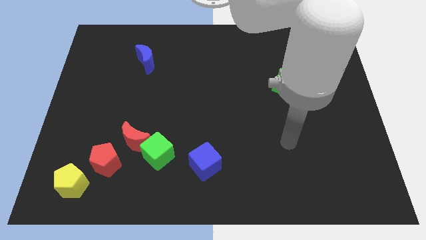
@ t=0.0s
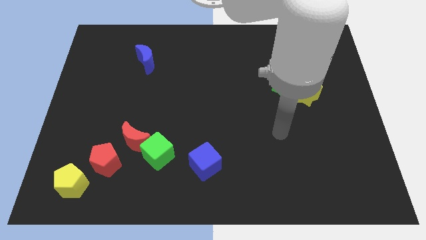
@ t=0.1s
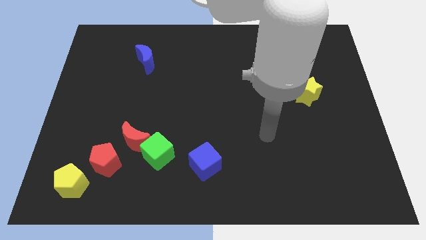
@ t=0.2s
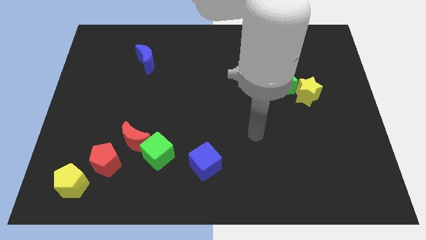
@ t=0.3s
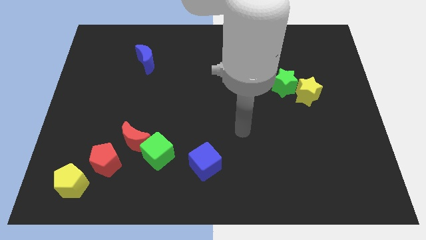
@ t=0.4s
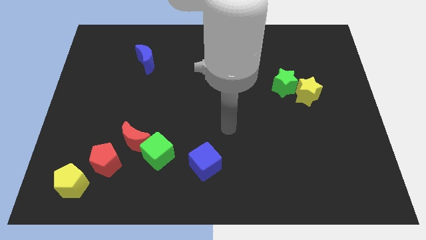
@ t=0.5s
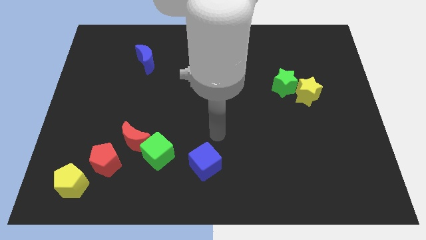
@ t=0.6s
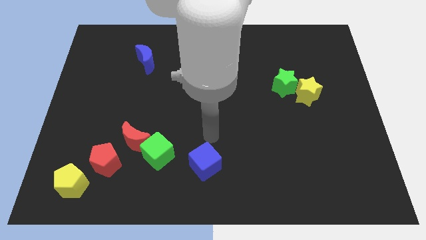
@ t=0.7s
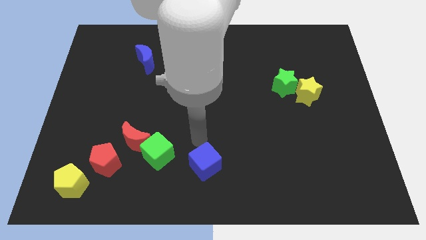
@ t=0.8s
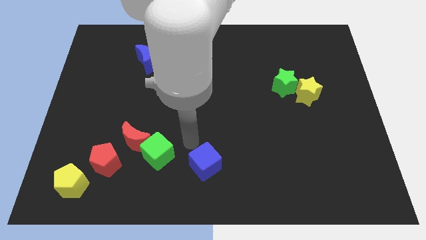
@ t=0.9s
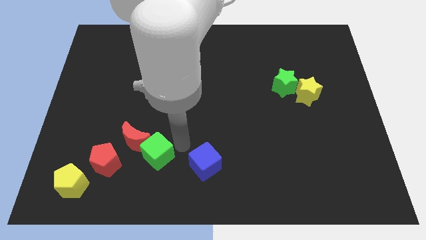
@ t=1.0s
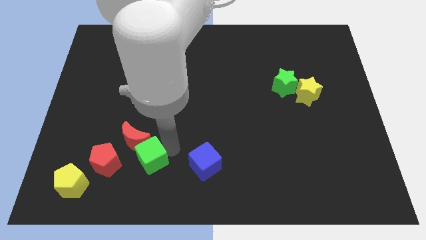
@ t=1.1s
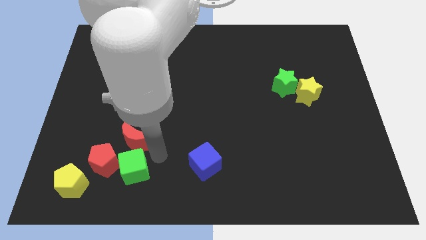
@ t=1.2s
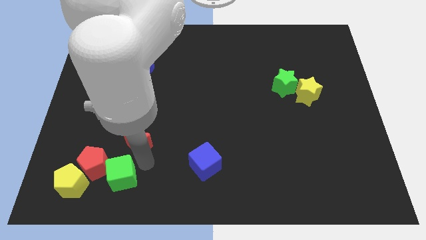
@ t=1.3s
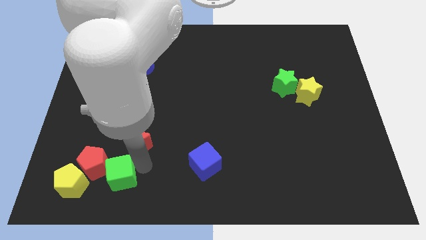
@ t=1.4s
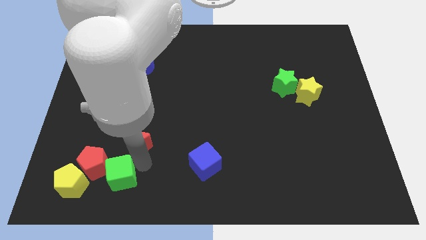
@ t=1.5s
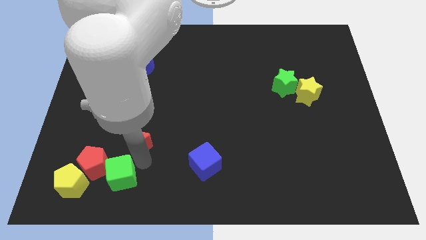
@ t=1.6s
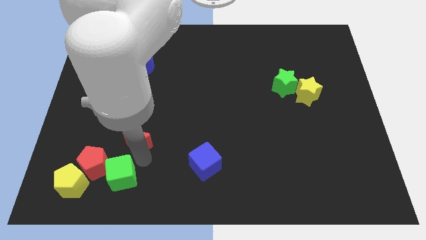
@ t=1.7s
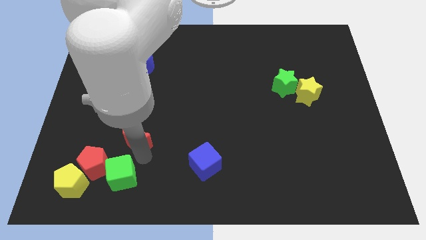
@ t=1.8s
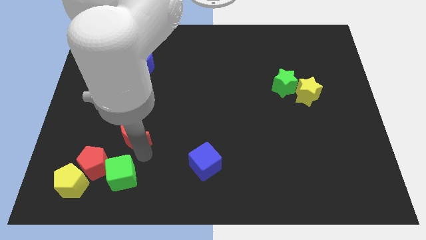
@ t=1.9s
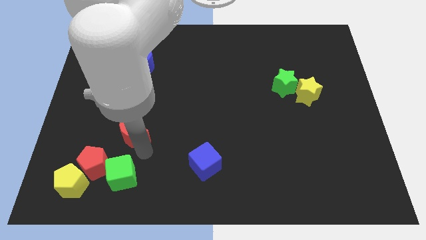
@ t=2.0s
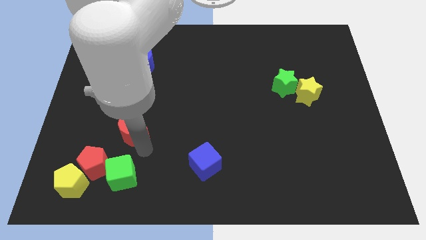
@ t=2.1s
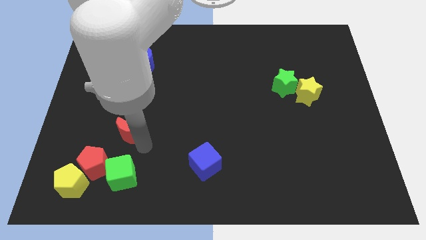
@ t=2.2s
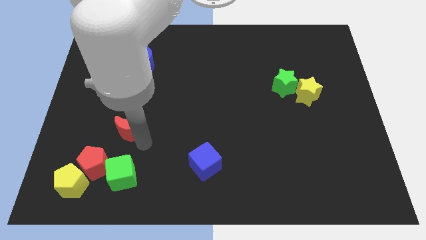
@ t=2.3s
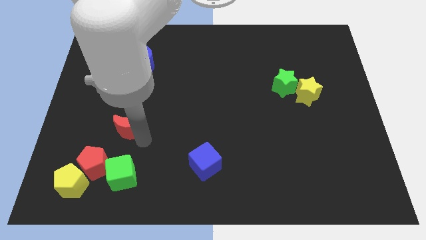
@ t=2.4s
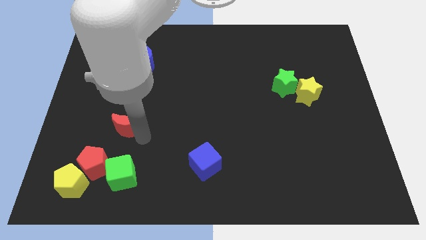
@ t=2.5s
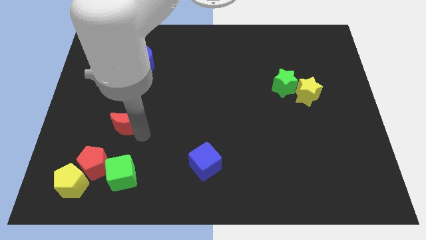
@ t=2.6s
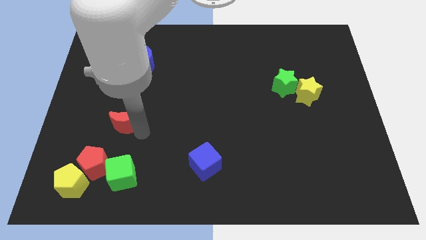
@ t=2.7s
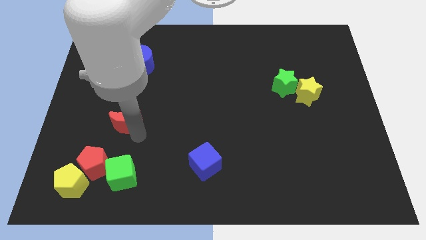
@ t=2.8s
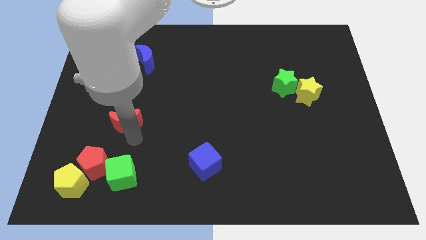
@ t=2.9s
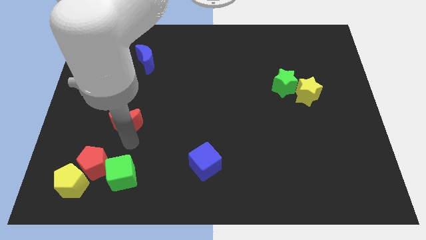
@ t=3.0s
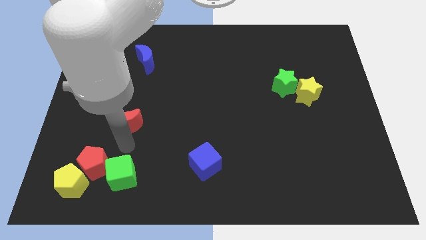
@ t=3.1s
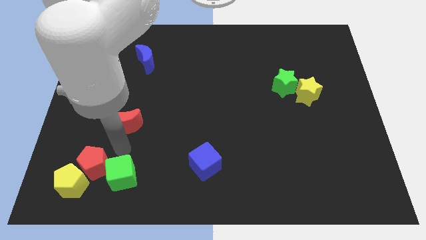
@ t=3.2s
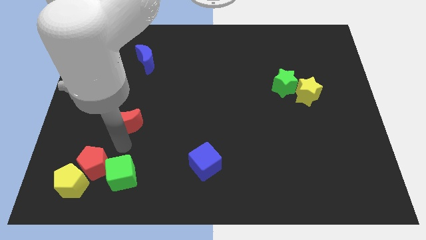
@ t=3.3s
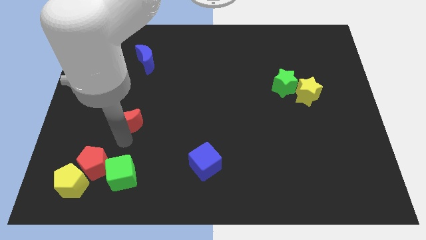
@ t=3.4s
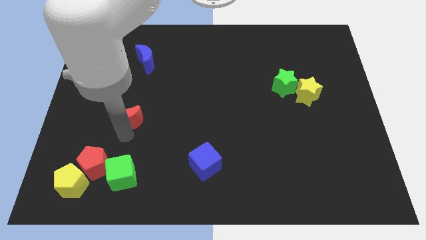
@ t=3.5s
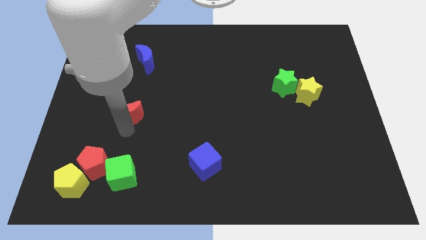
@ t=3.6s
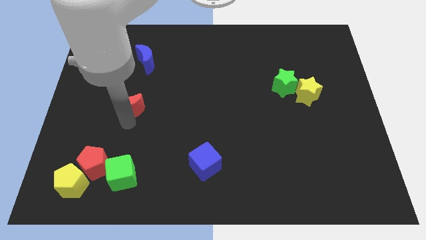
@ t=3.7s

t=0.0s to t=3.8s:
move the red moon up a little bit

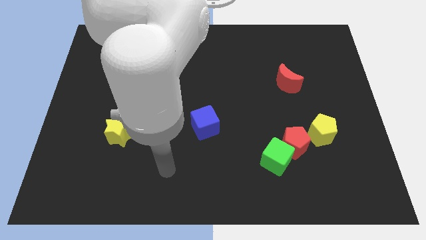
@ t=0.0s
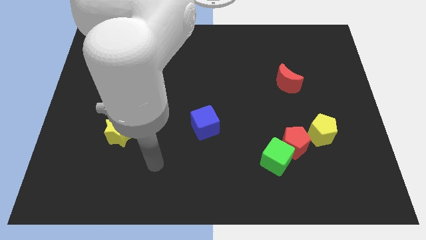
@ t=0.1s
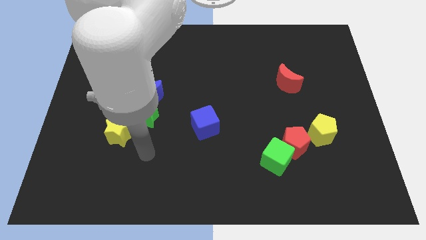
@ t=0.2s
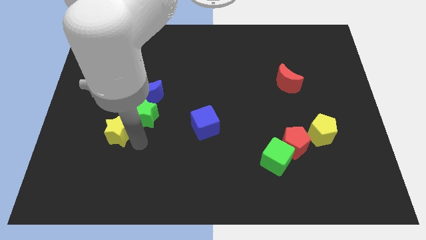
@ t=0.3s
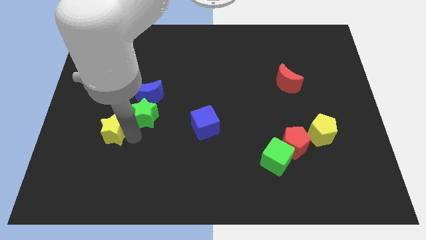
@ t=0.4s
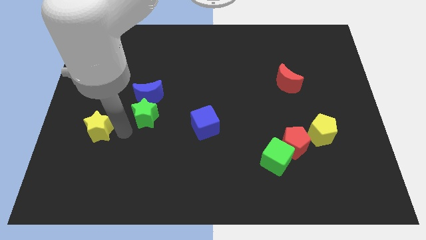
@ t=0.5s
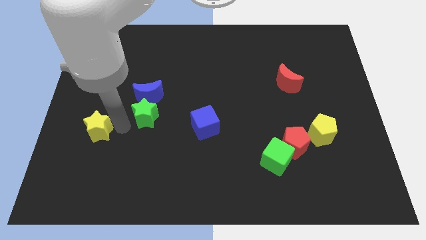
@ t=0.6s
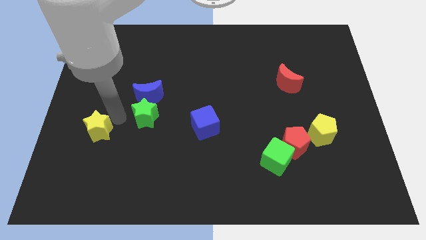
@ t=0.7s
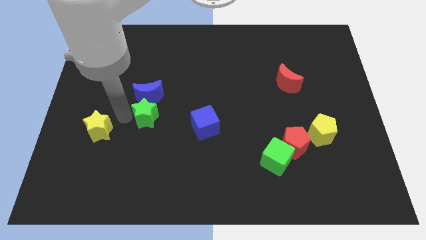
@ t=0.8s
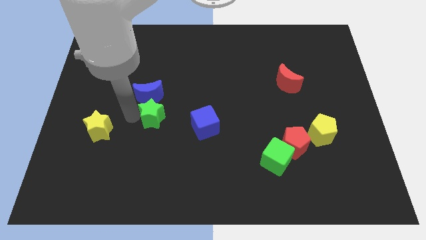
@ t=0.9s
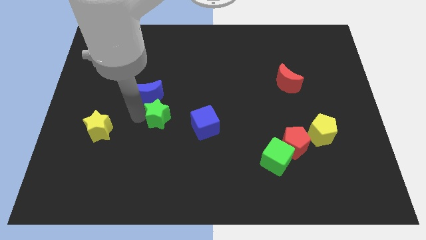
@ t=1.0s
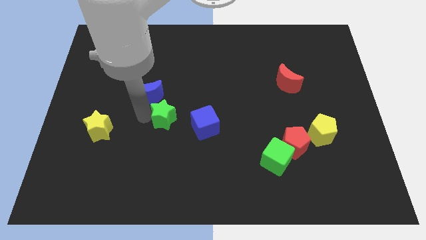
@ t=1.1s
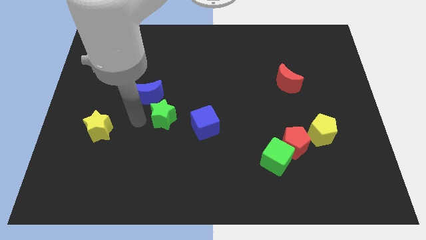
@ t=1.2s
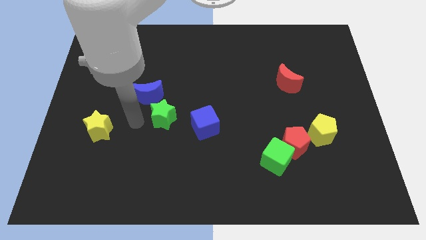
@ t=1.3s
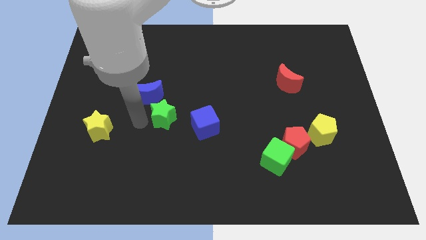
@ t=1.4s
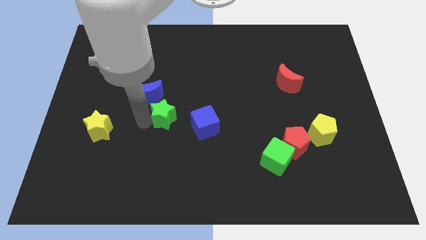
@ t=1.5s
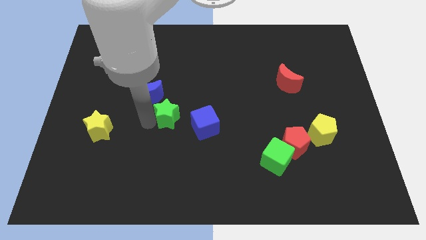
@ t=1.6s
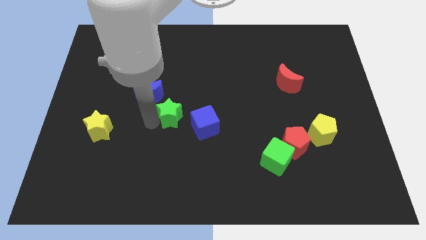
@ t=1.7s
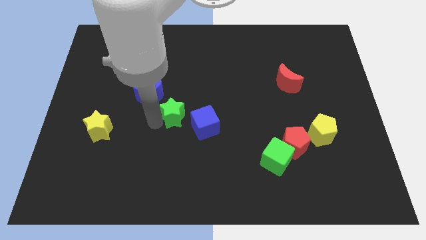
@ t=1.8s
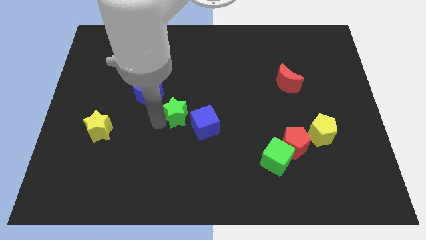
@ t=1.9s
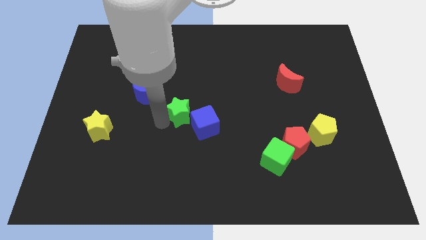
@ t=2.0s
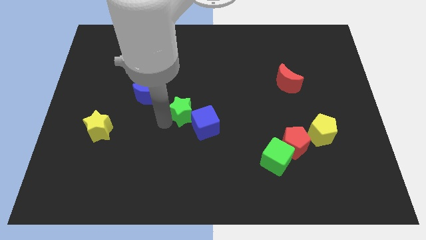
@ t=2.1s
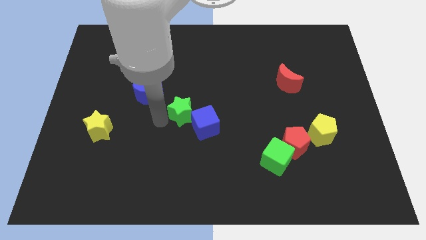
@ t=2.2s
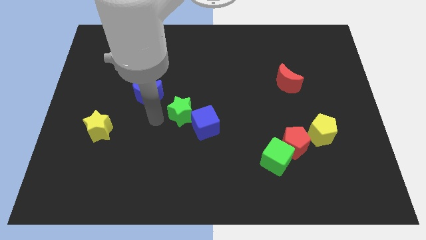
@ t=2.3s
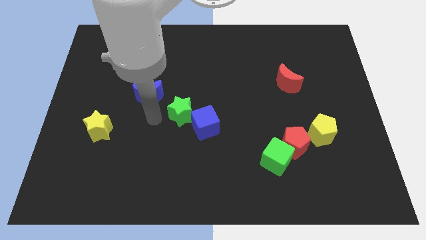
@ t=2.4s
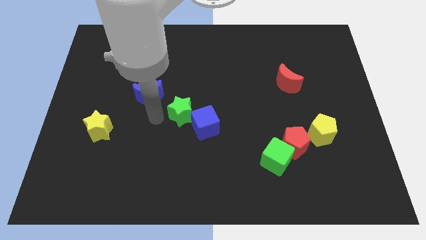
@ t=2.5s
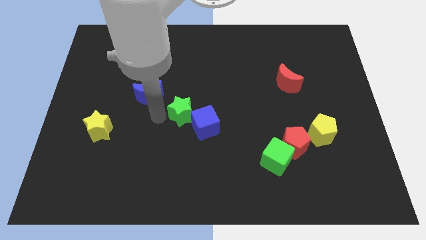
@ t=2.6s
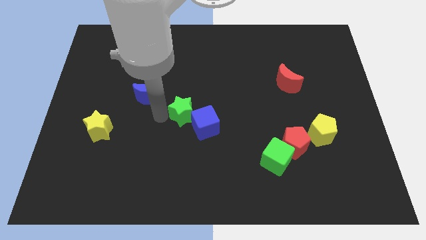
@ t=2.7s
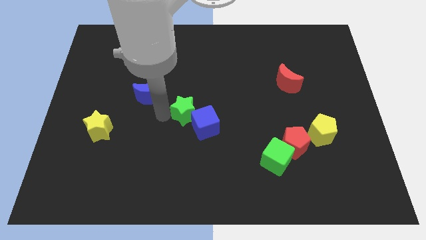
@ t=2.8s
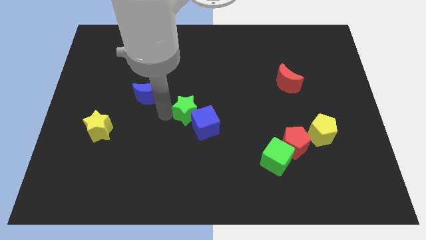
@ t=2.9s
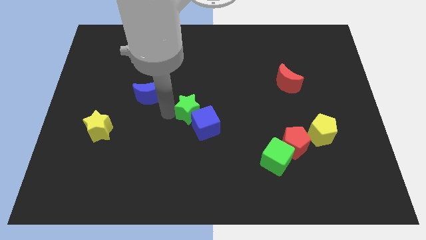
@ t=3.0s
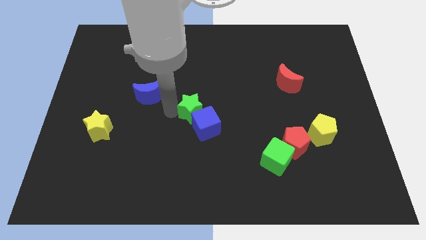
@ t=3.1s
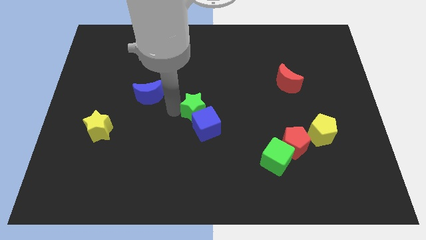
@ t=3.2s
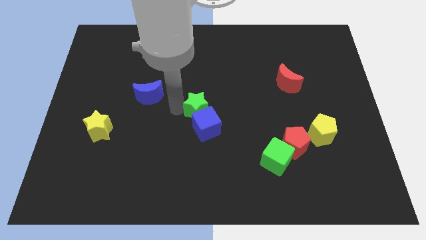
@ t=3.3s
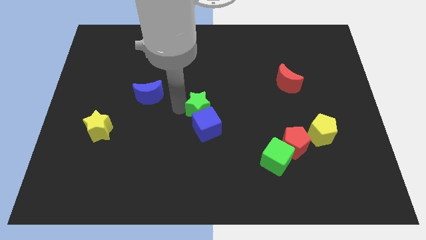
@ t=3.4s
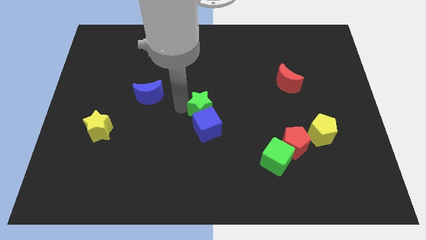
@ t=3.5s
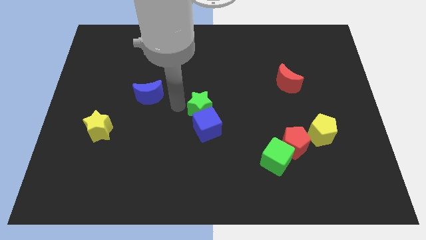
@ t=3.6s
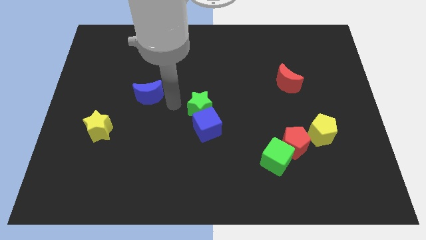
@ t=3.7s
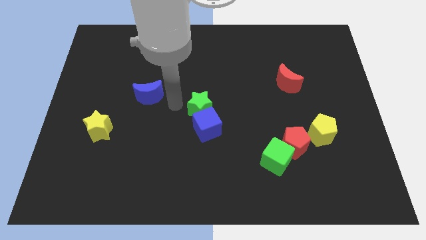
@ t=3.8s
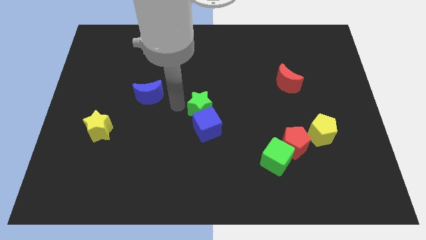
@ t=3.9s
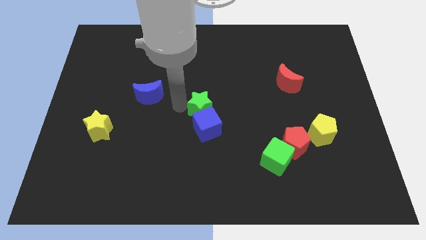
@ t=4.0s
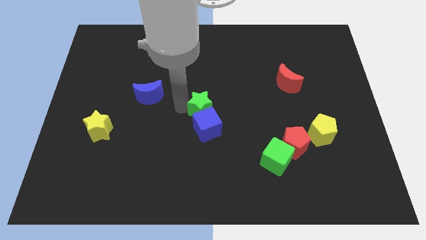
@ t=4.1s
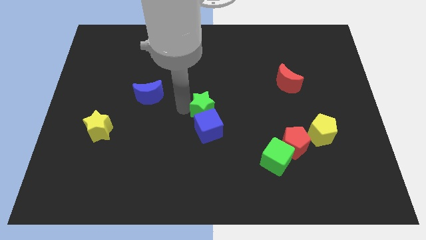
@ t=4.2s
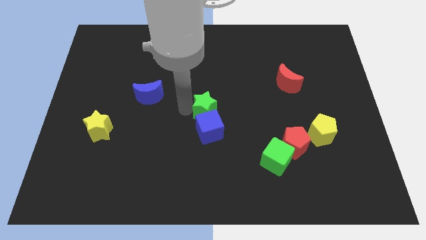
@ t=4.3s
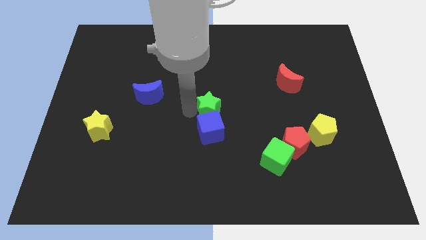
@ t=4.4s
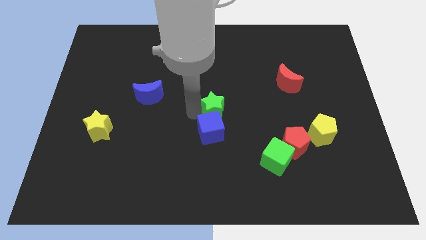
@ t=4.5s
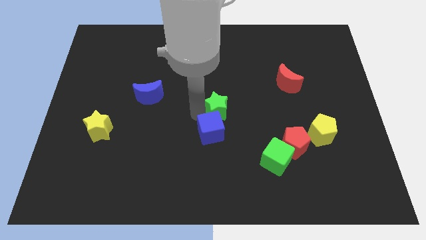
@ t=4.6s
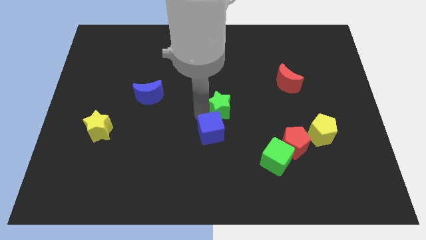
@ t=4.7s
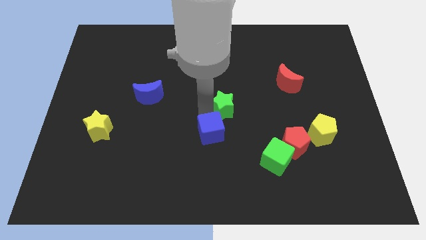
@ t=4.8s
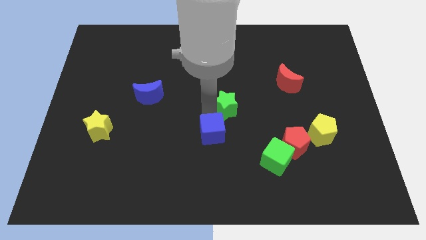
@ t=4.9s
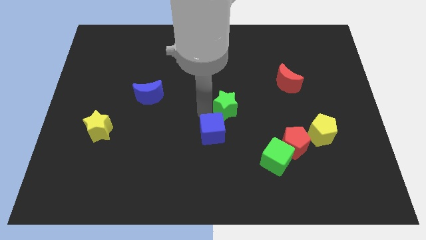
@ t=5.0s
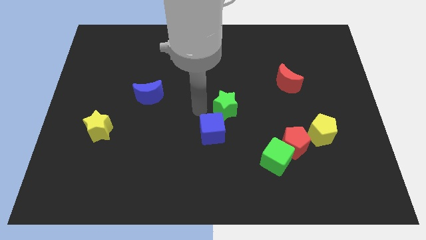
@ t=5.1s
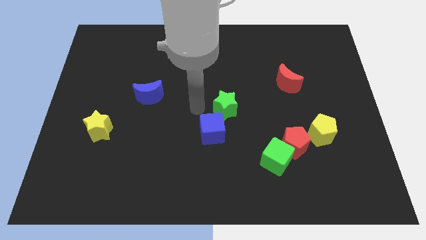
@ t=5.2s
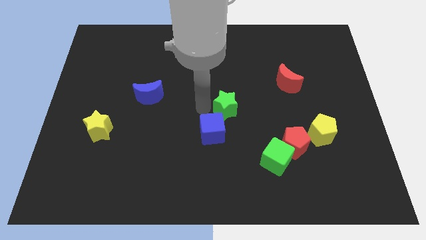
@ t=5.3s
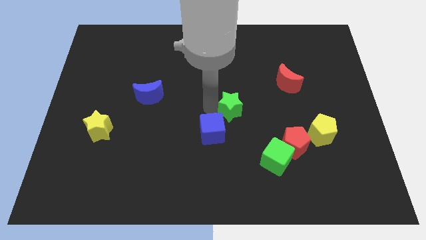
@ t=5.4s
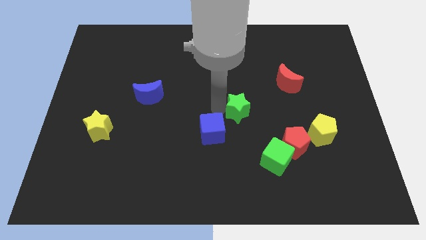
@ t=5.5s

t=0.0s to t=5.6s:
move the green star right
